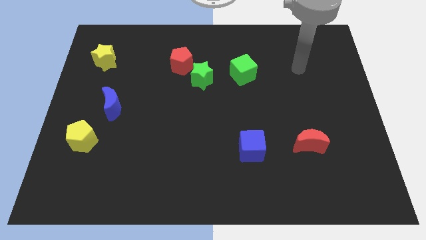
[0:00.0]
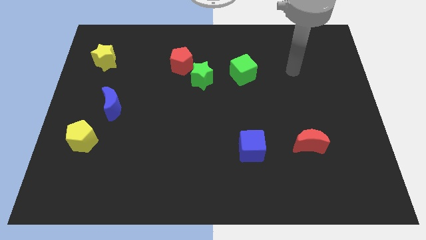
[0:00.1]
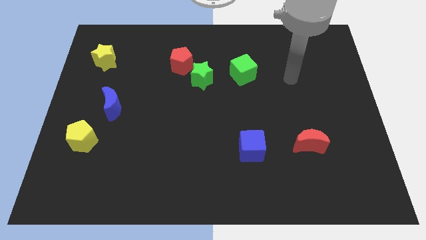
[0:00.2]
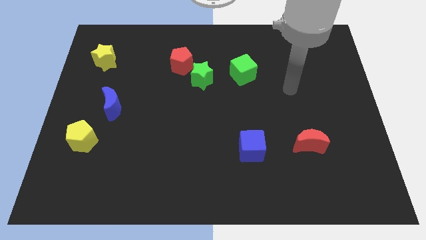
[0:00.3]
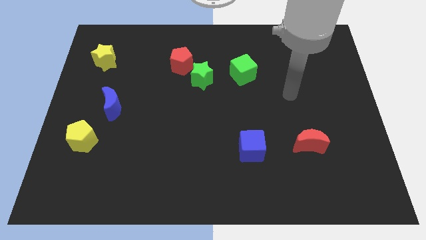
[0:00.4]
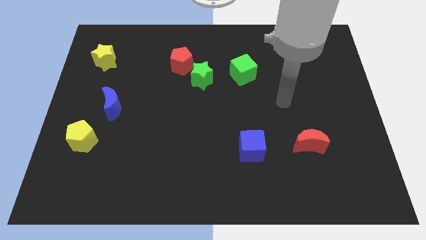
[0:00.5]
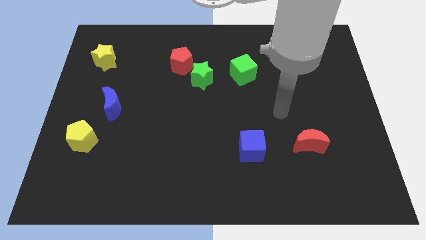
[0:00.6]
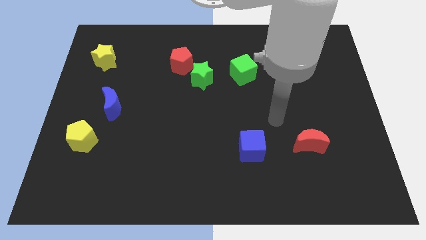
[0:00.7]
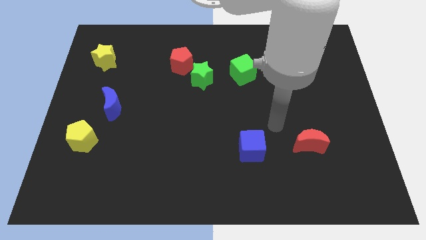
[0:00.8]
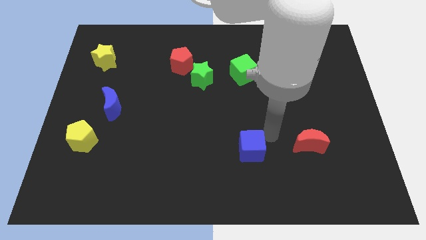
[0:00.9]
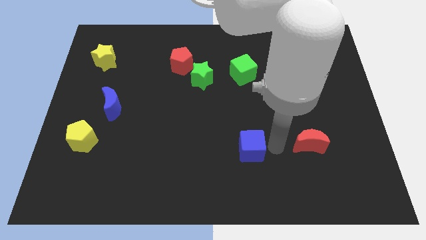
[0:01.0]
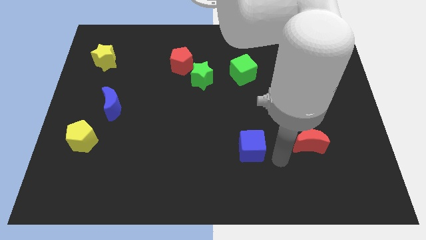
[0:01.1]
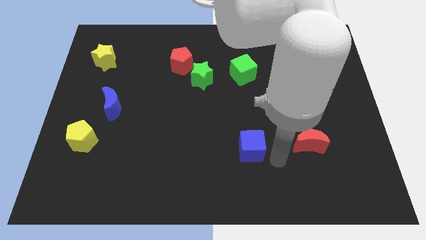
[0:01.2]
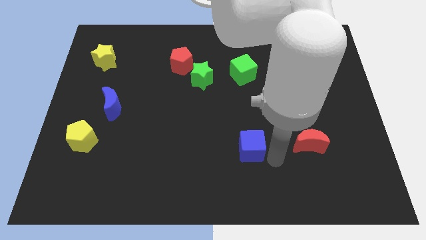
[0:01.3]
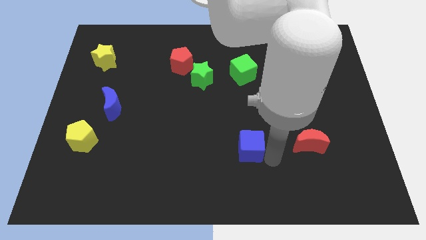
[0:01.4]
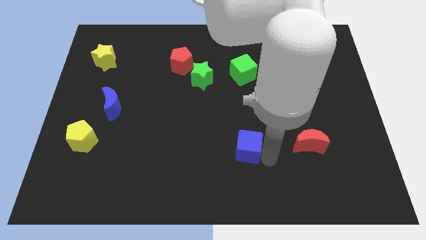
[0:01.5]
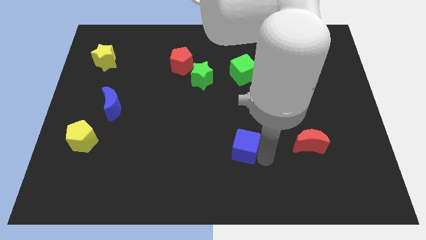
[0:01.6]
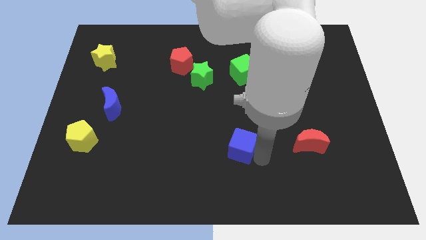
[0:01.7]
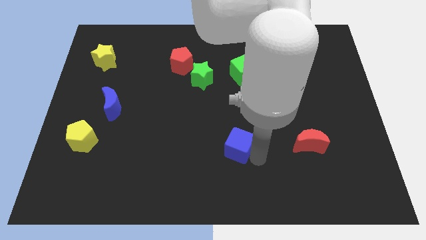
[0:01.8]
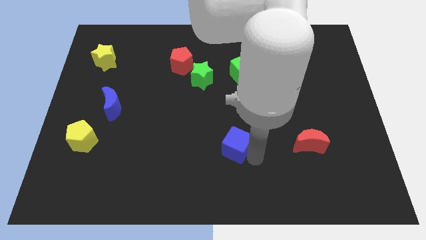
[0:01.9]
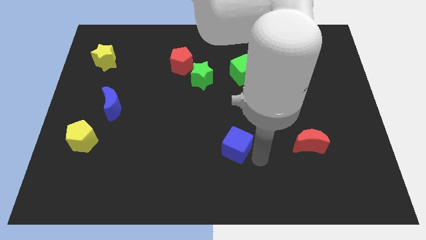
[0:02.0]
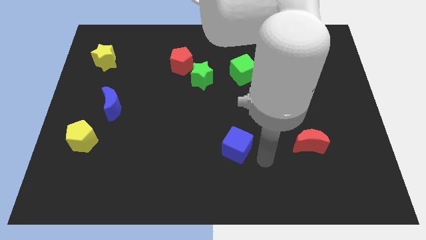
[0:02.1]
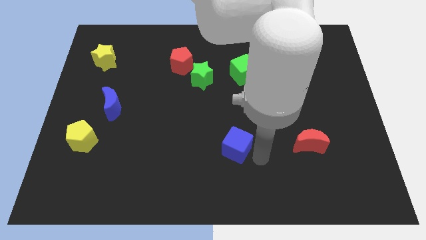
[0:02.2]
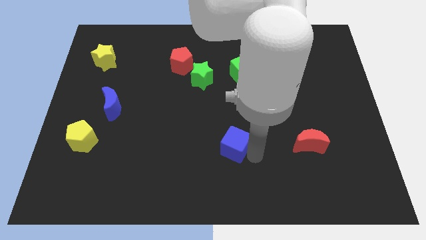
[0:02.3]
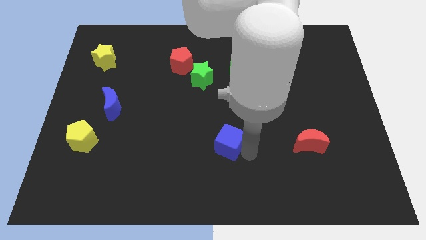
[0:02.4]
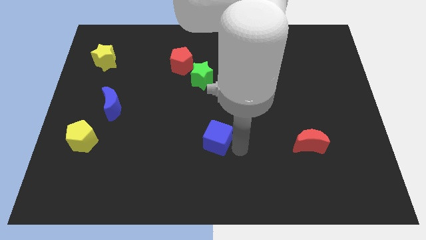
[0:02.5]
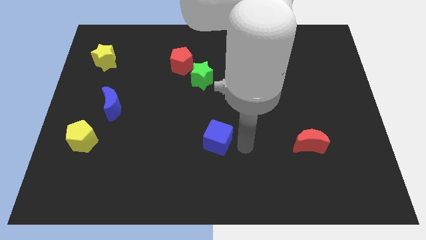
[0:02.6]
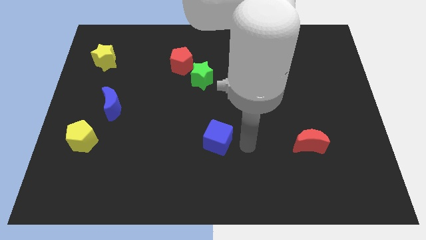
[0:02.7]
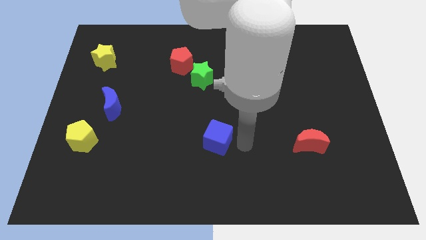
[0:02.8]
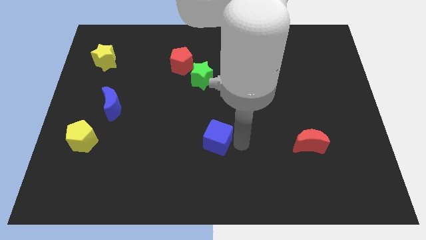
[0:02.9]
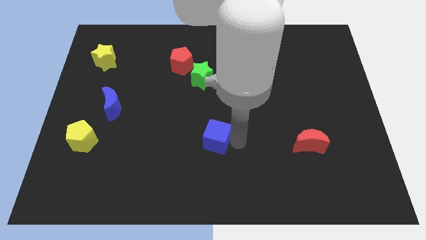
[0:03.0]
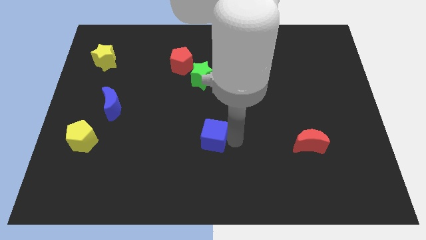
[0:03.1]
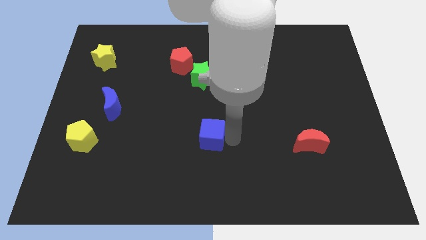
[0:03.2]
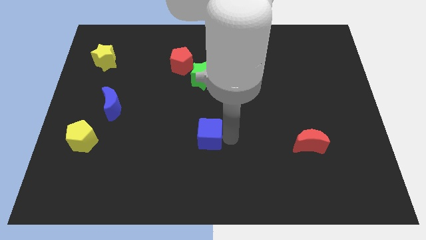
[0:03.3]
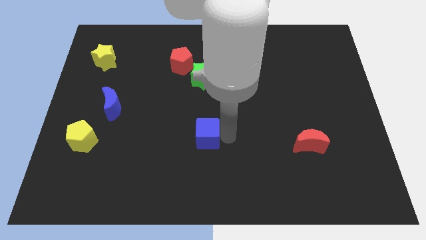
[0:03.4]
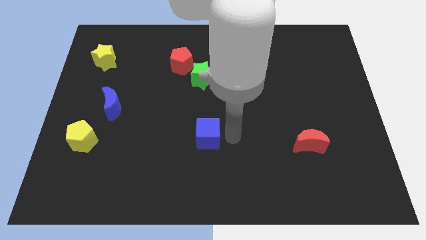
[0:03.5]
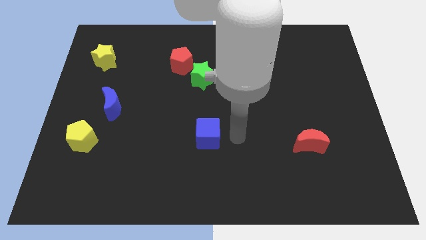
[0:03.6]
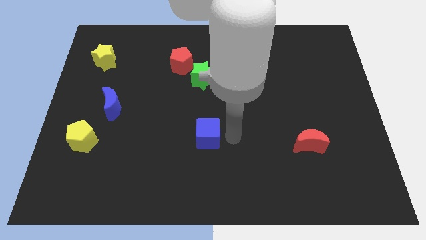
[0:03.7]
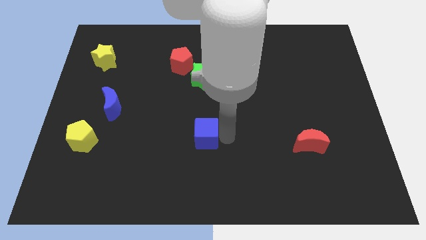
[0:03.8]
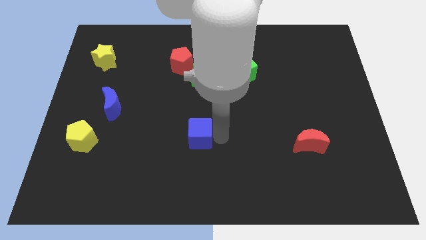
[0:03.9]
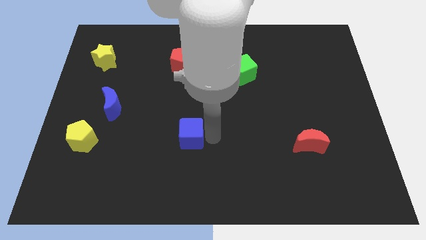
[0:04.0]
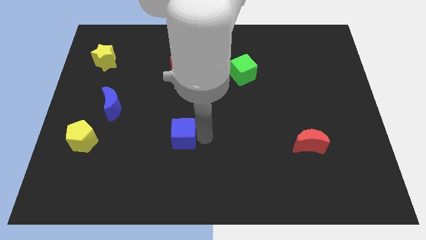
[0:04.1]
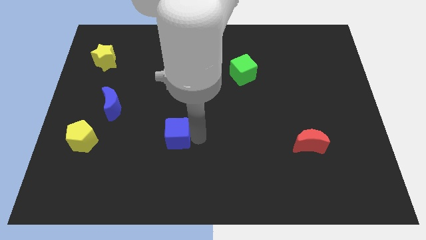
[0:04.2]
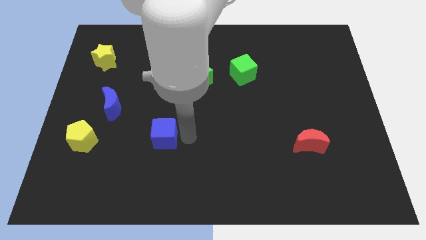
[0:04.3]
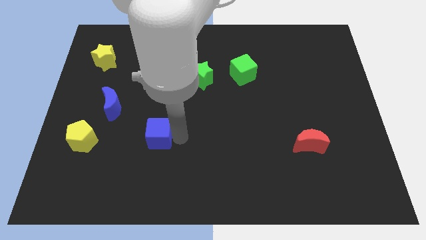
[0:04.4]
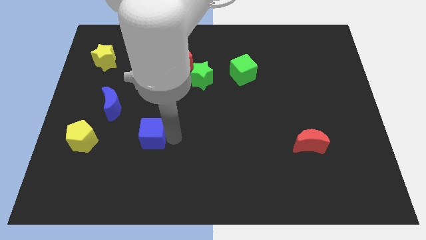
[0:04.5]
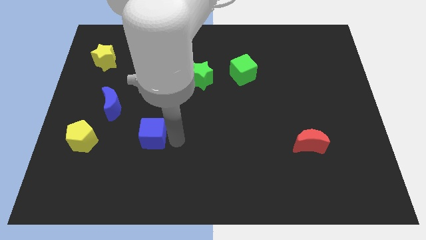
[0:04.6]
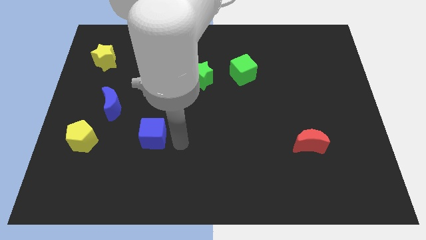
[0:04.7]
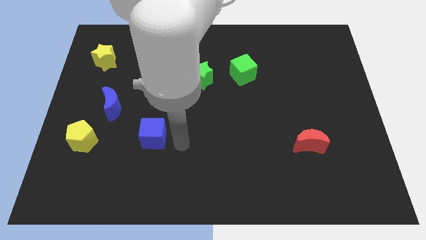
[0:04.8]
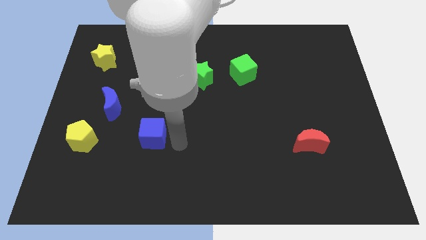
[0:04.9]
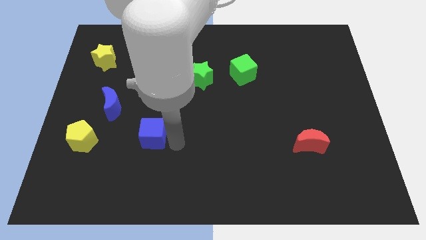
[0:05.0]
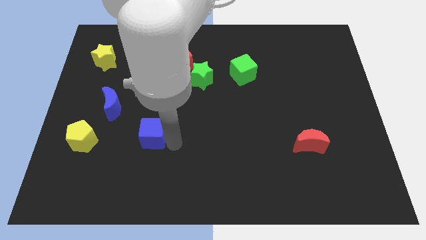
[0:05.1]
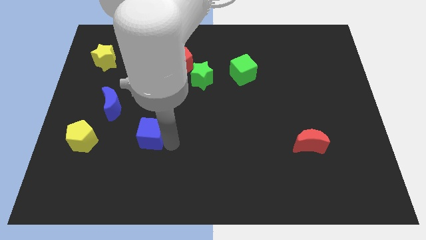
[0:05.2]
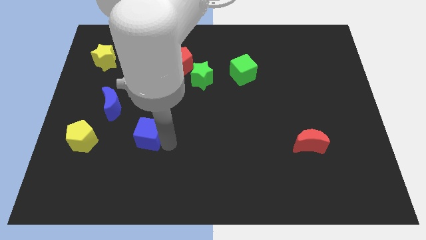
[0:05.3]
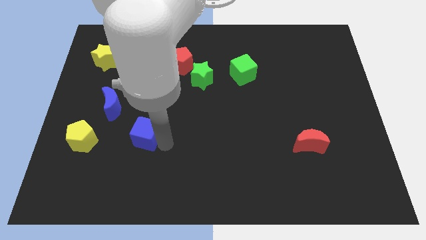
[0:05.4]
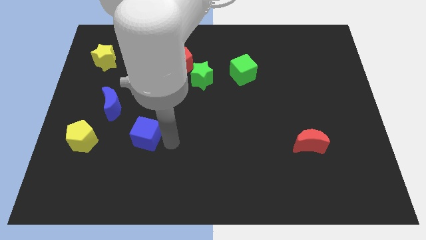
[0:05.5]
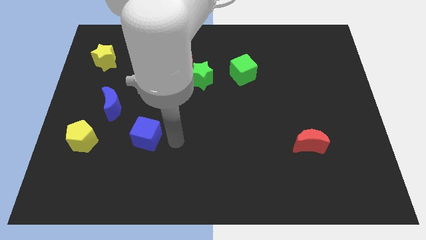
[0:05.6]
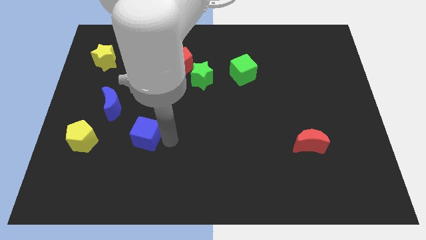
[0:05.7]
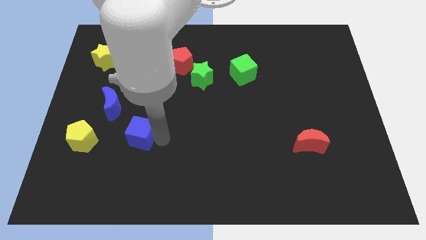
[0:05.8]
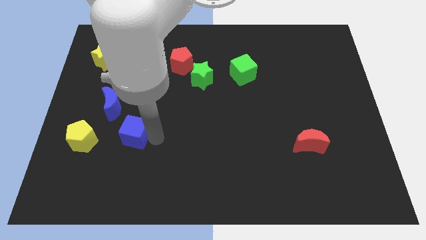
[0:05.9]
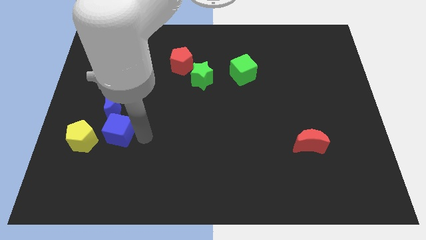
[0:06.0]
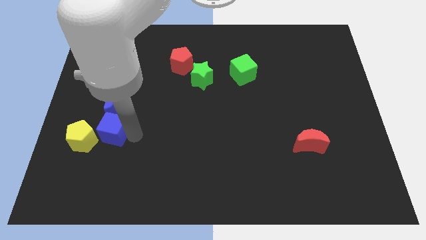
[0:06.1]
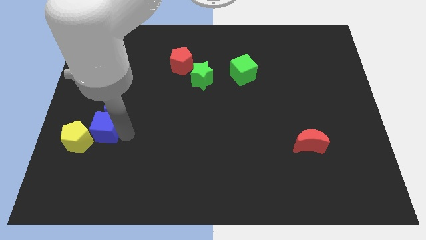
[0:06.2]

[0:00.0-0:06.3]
move the blue cube diagonally down and to the left of the blue moon
